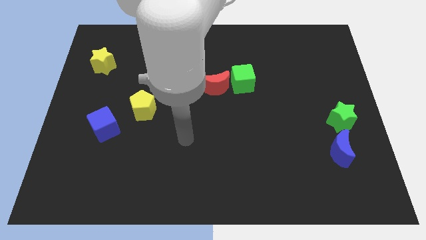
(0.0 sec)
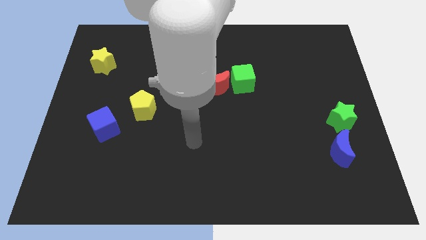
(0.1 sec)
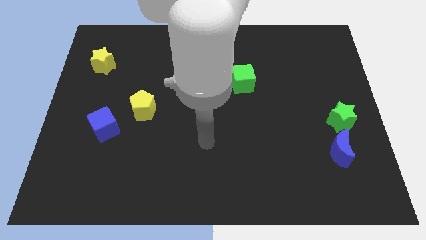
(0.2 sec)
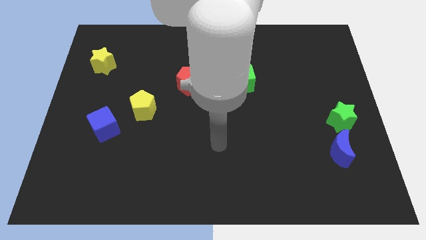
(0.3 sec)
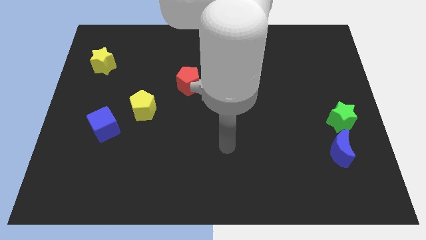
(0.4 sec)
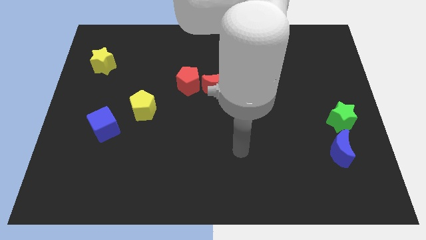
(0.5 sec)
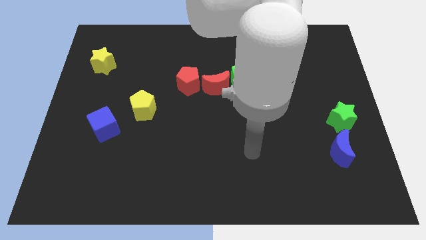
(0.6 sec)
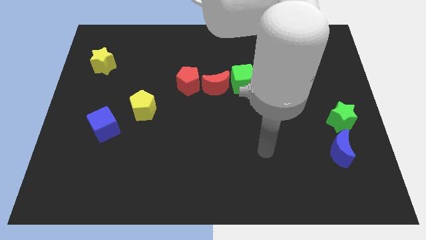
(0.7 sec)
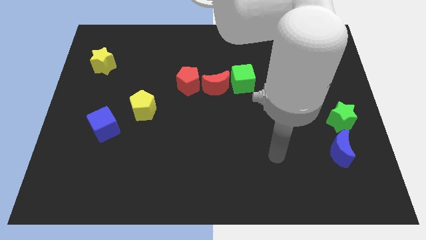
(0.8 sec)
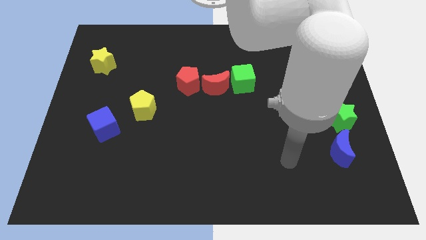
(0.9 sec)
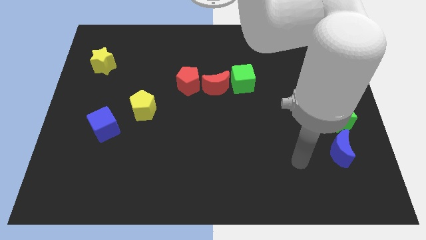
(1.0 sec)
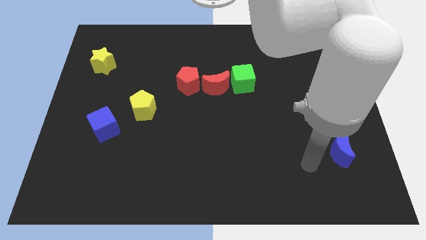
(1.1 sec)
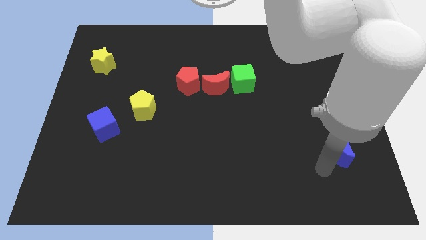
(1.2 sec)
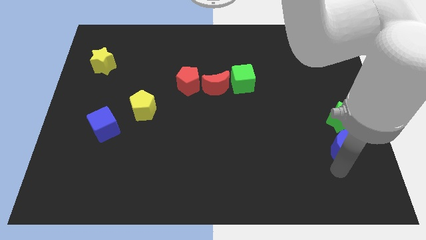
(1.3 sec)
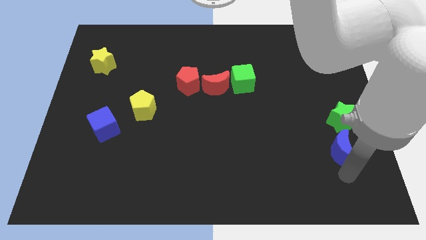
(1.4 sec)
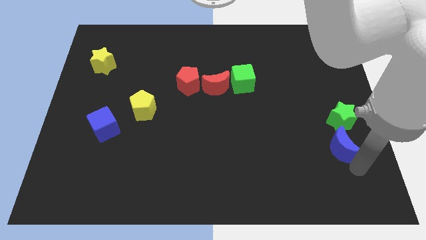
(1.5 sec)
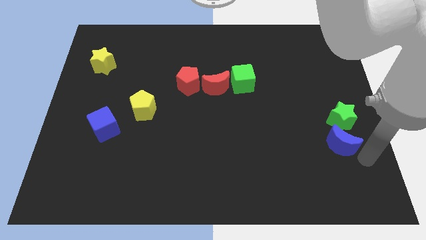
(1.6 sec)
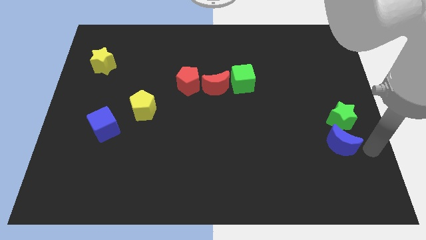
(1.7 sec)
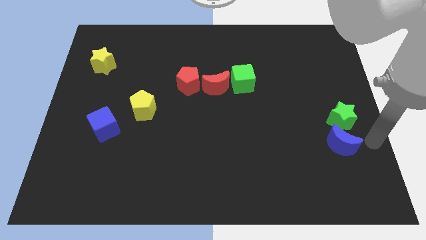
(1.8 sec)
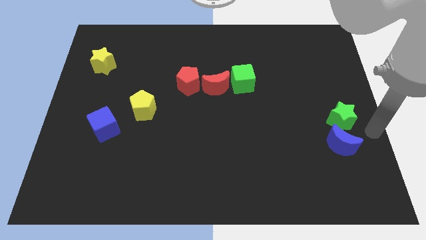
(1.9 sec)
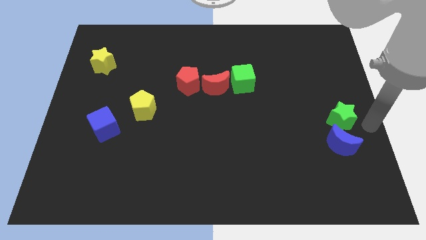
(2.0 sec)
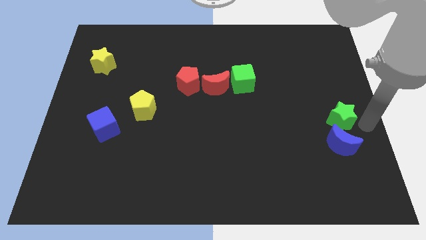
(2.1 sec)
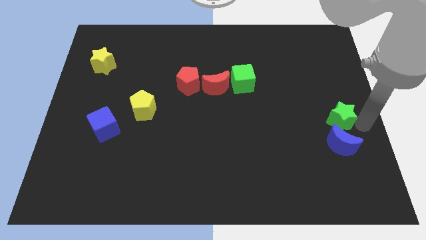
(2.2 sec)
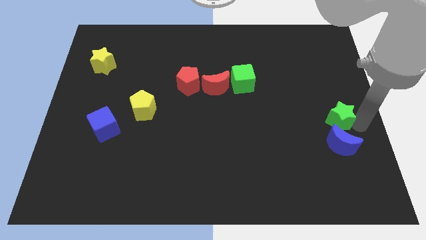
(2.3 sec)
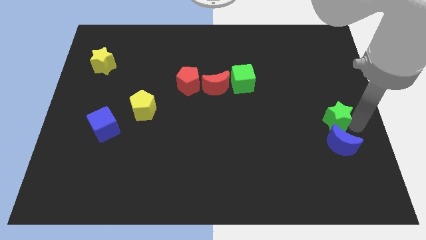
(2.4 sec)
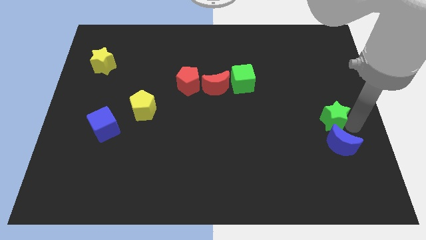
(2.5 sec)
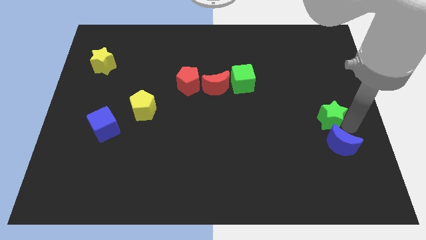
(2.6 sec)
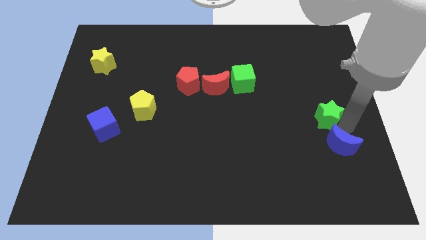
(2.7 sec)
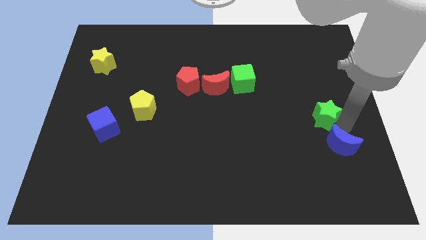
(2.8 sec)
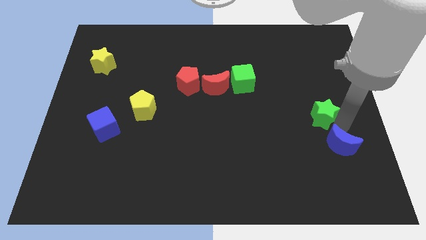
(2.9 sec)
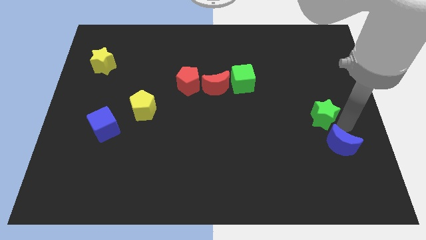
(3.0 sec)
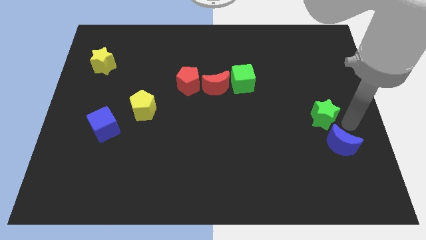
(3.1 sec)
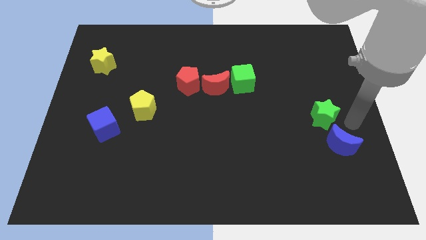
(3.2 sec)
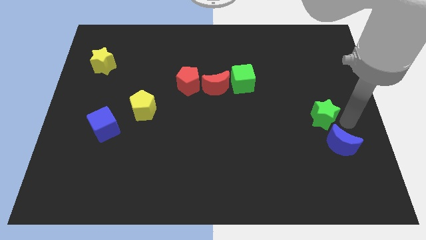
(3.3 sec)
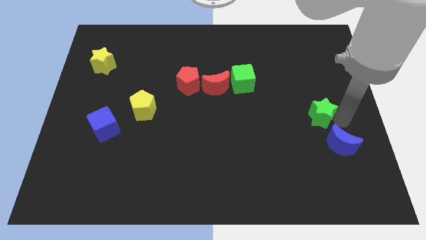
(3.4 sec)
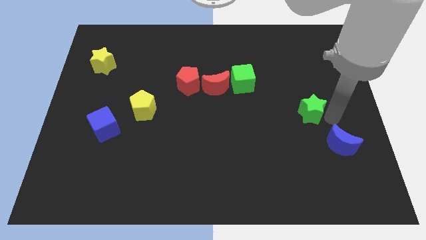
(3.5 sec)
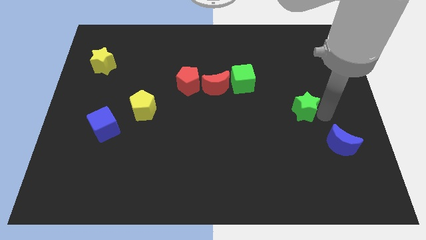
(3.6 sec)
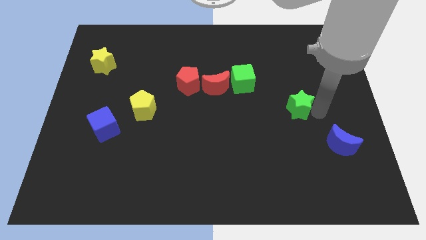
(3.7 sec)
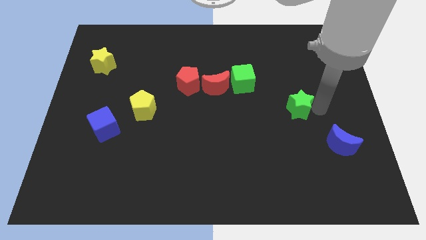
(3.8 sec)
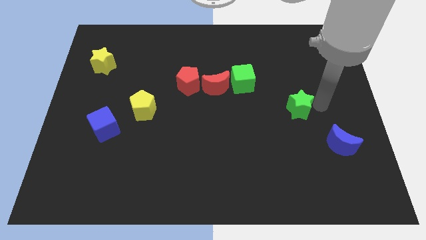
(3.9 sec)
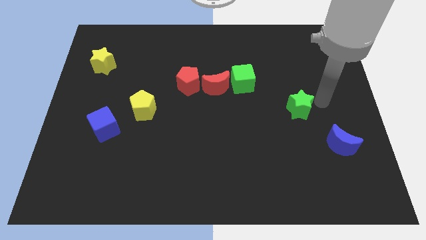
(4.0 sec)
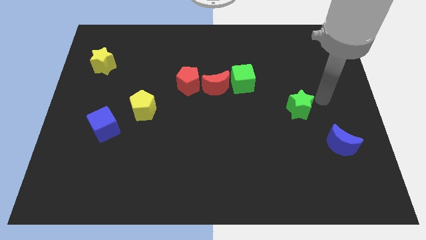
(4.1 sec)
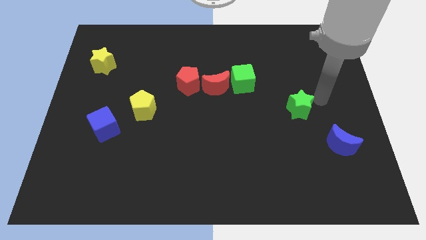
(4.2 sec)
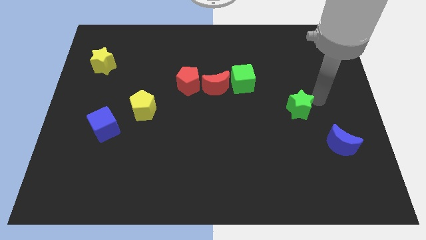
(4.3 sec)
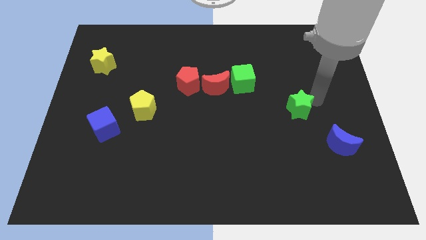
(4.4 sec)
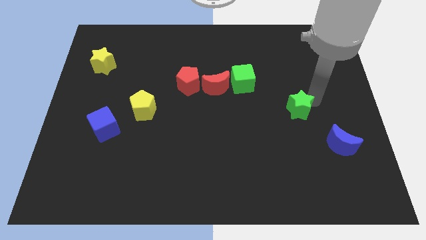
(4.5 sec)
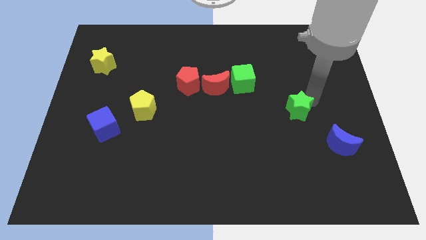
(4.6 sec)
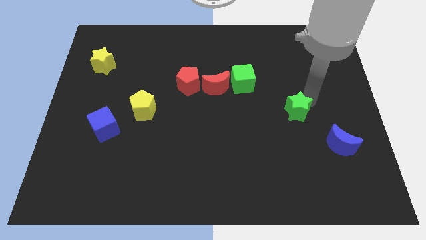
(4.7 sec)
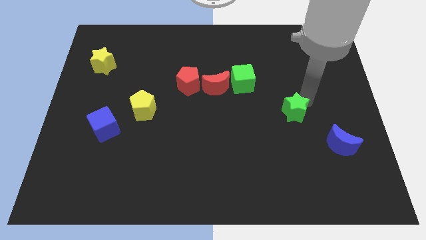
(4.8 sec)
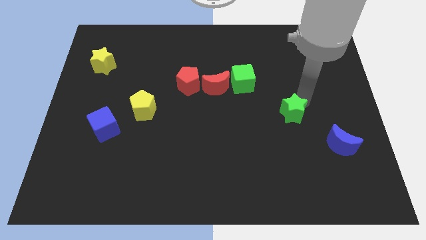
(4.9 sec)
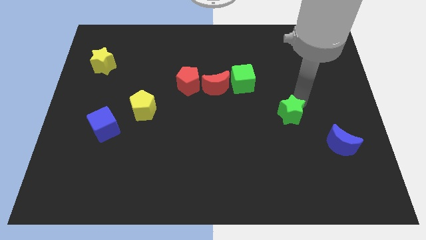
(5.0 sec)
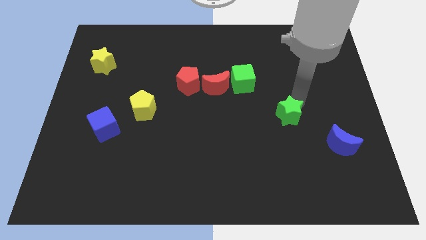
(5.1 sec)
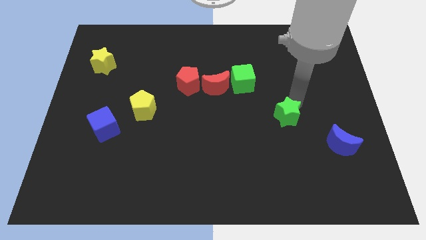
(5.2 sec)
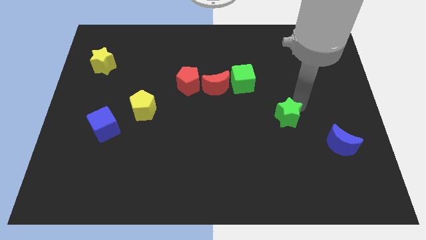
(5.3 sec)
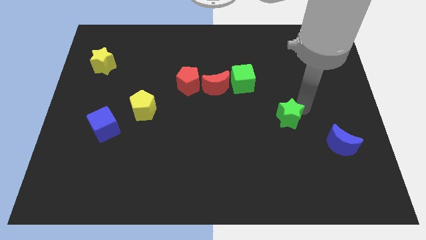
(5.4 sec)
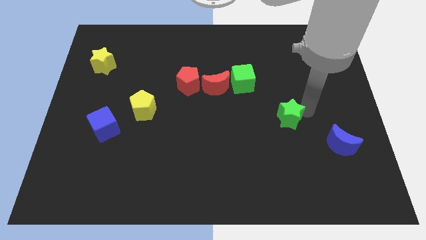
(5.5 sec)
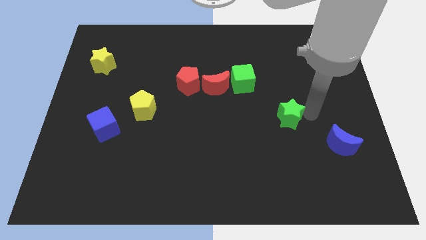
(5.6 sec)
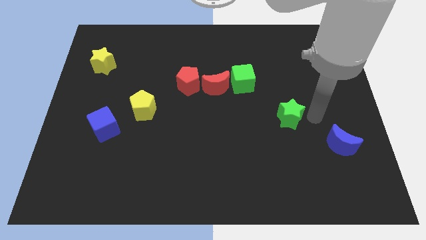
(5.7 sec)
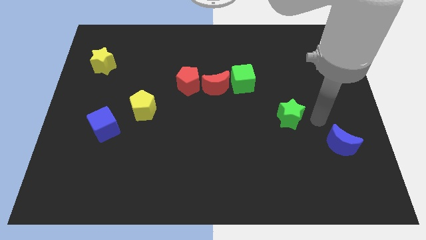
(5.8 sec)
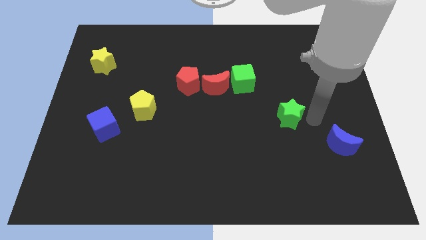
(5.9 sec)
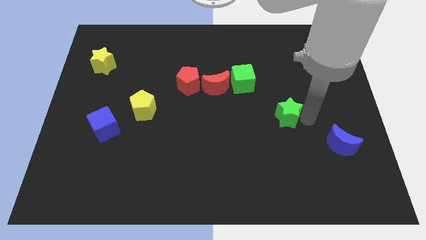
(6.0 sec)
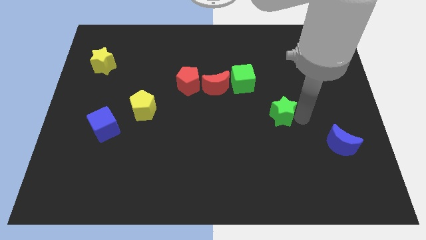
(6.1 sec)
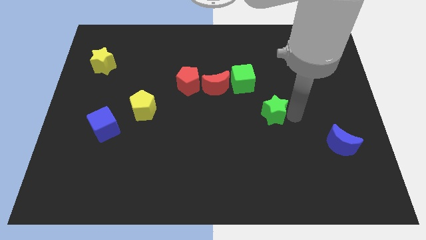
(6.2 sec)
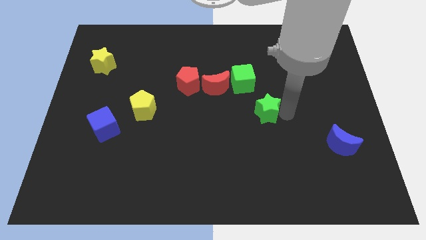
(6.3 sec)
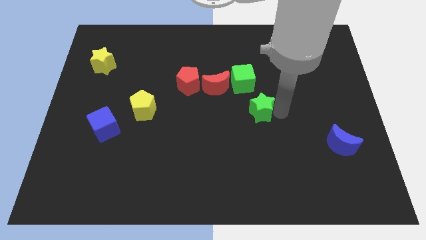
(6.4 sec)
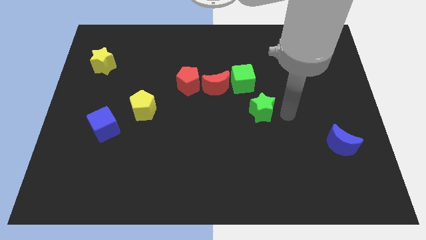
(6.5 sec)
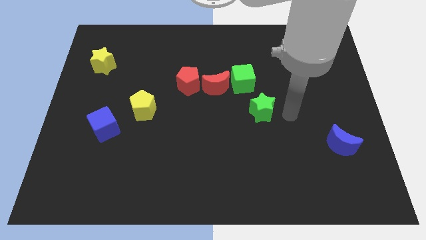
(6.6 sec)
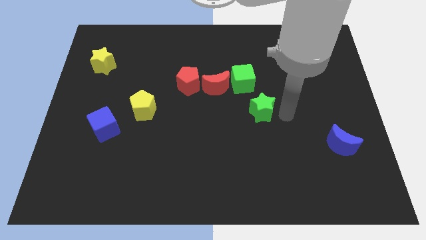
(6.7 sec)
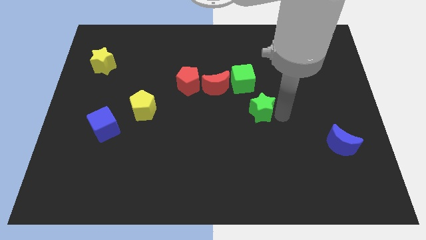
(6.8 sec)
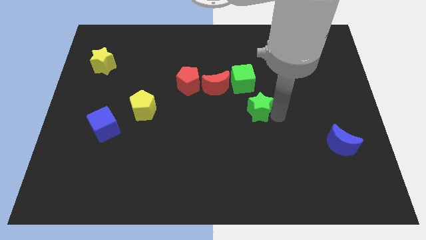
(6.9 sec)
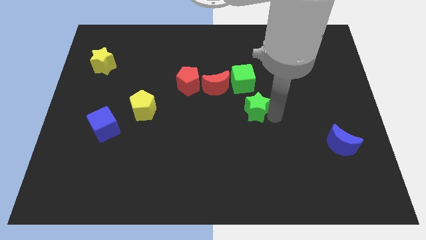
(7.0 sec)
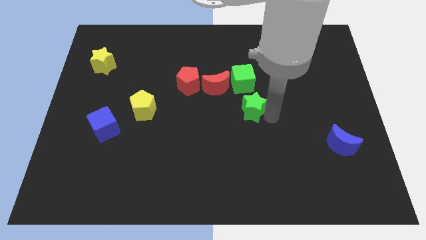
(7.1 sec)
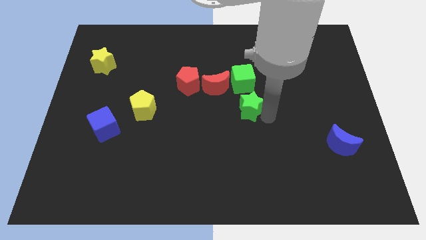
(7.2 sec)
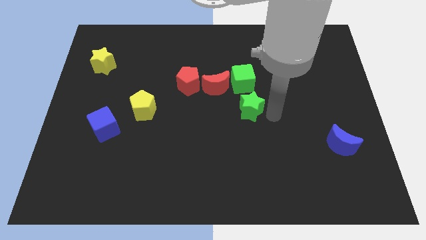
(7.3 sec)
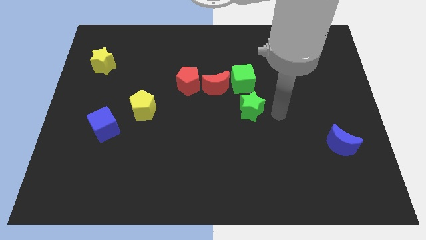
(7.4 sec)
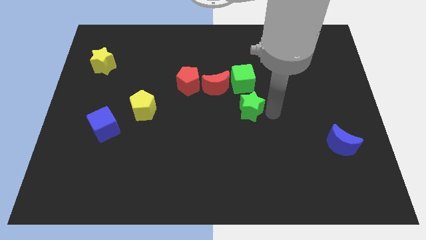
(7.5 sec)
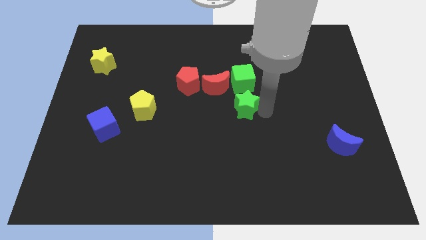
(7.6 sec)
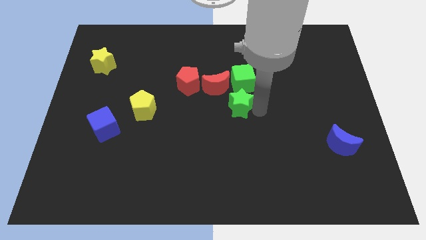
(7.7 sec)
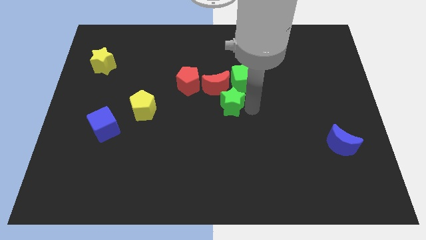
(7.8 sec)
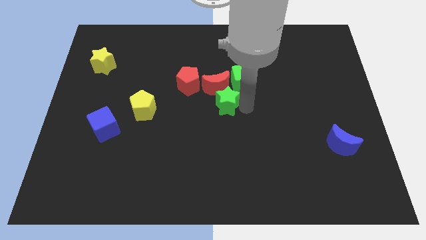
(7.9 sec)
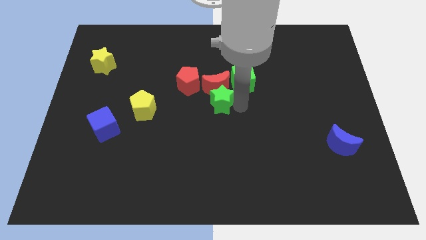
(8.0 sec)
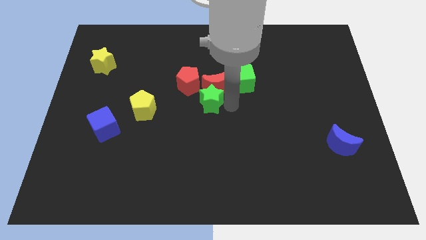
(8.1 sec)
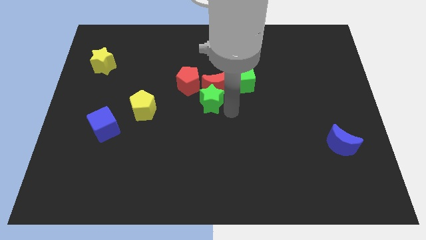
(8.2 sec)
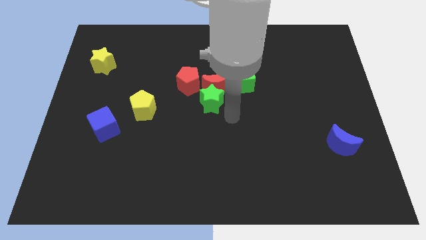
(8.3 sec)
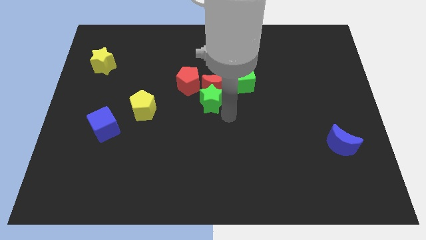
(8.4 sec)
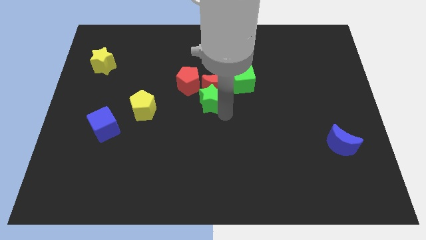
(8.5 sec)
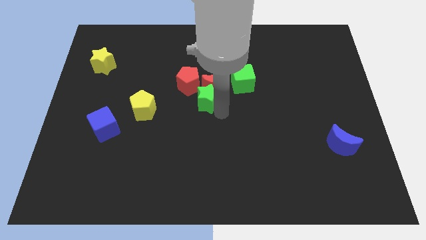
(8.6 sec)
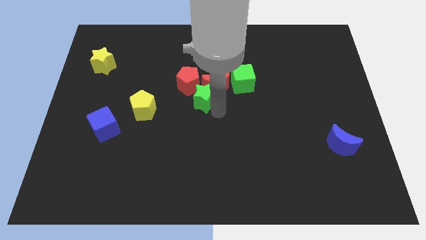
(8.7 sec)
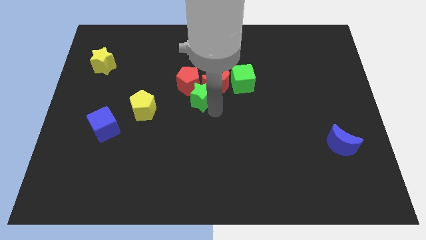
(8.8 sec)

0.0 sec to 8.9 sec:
slide the green star to the red pentagon
